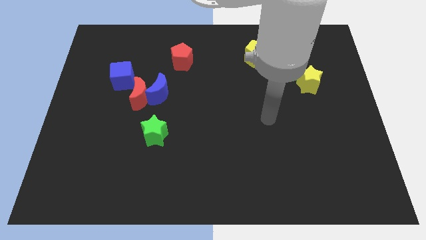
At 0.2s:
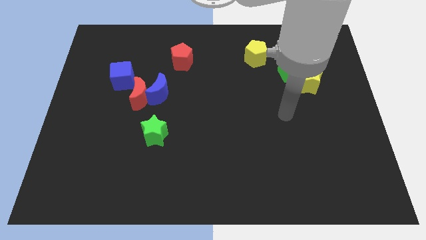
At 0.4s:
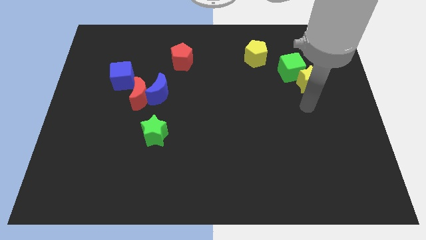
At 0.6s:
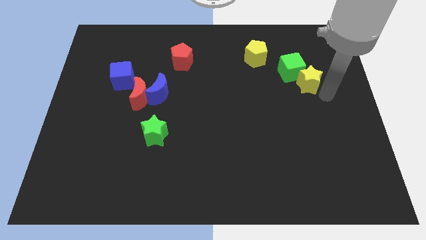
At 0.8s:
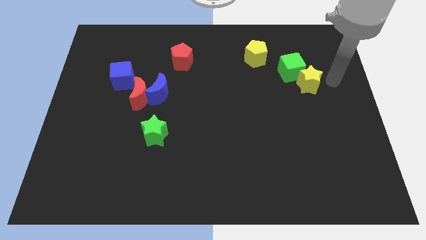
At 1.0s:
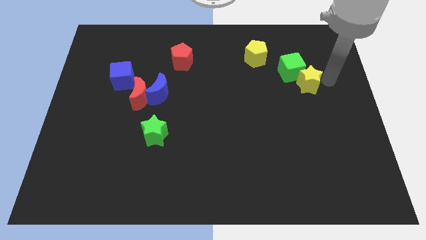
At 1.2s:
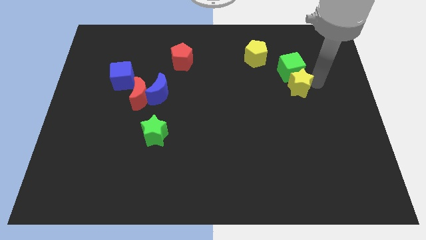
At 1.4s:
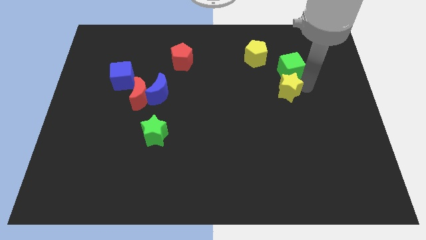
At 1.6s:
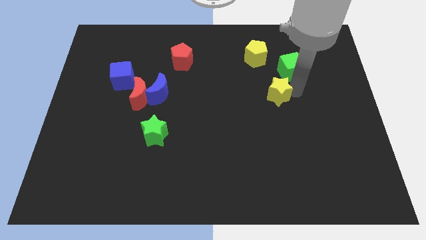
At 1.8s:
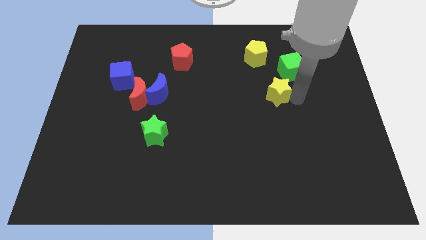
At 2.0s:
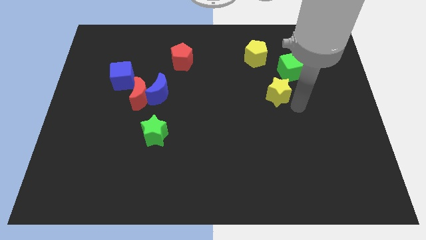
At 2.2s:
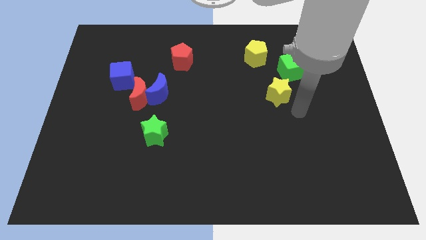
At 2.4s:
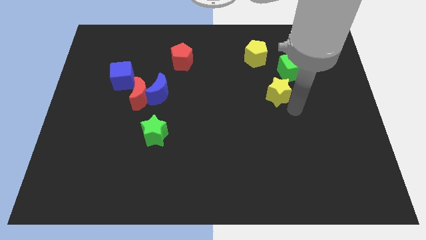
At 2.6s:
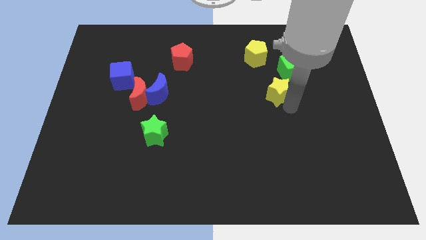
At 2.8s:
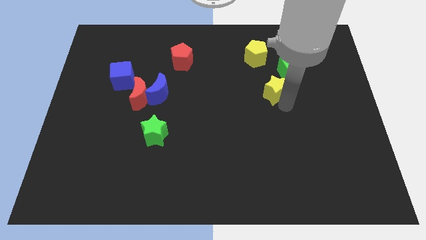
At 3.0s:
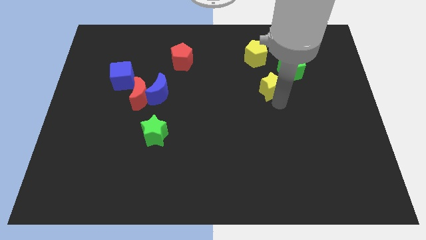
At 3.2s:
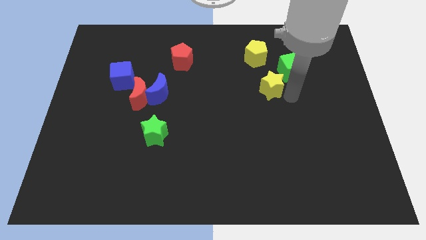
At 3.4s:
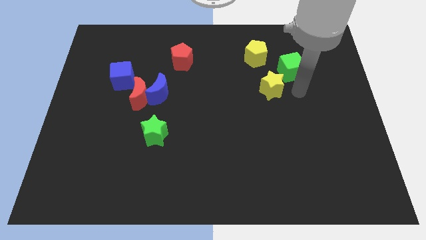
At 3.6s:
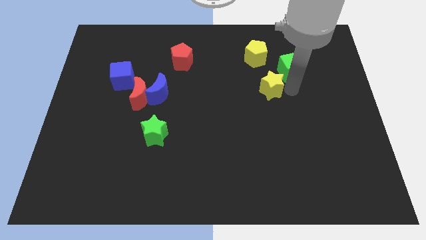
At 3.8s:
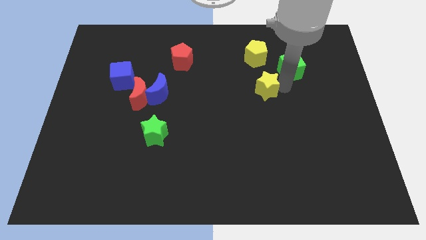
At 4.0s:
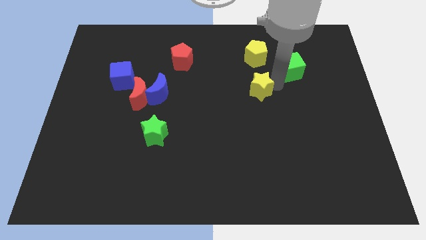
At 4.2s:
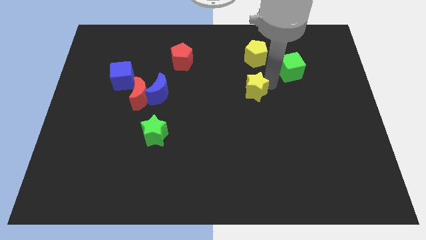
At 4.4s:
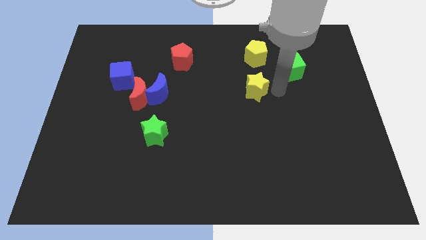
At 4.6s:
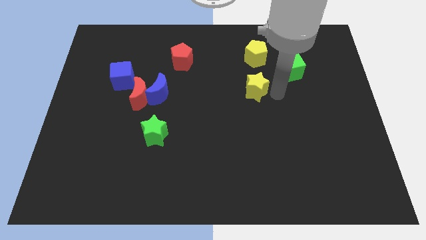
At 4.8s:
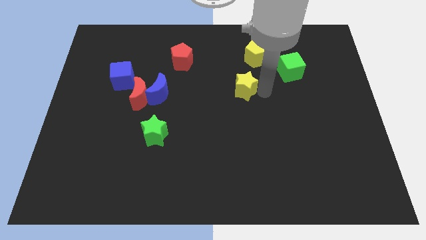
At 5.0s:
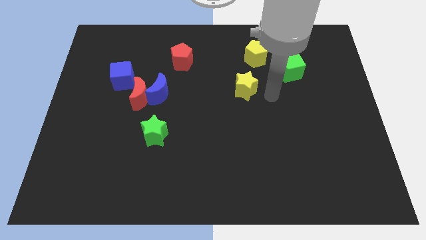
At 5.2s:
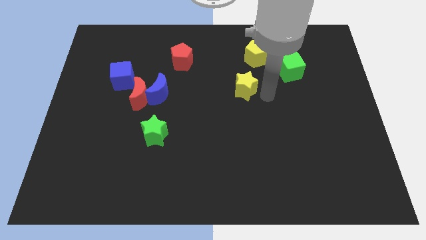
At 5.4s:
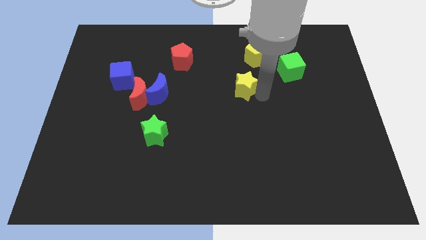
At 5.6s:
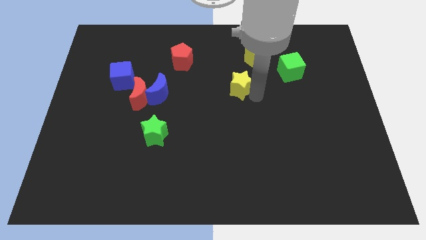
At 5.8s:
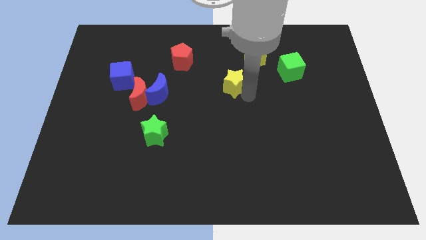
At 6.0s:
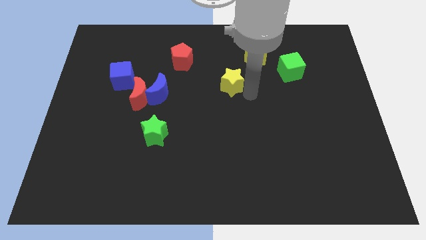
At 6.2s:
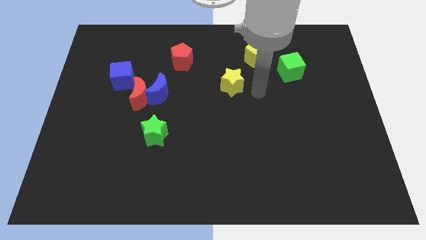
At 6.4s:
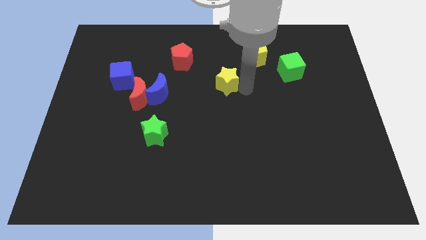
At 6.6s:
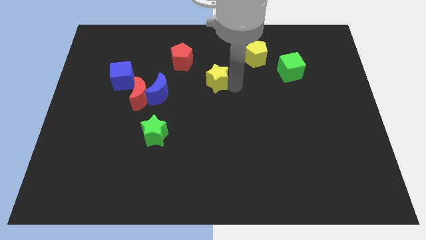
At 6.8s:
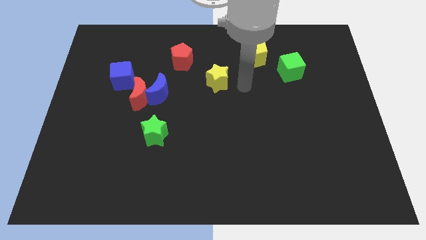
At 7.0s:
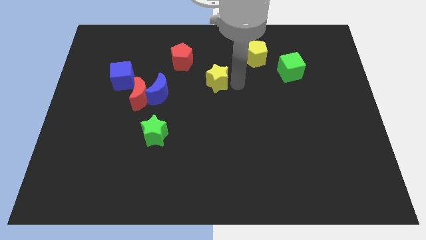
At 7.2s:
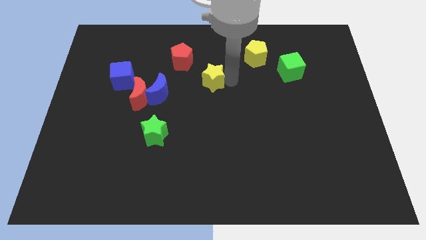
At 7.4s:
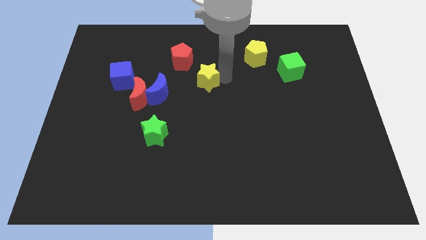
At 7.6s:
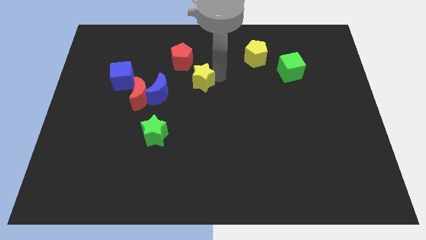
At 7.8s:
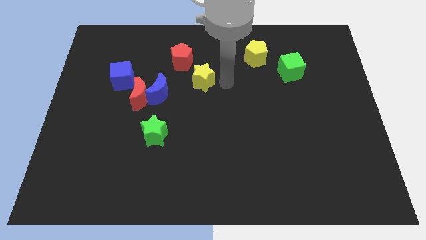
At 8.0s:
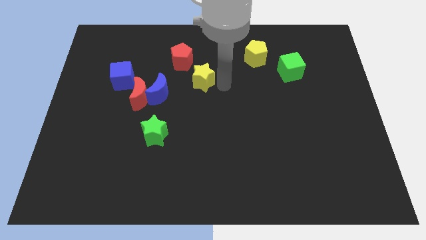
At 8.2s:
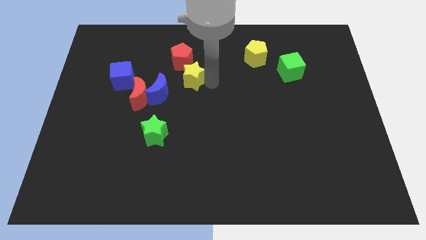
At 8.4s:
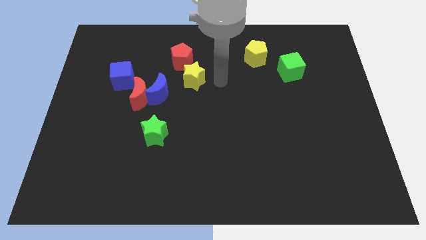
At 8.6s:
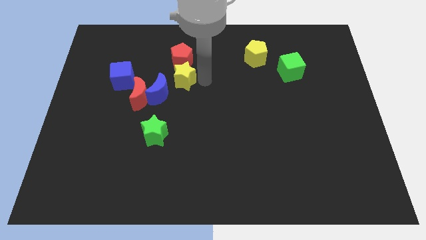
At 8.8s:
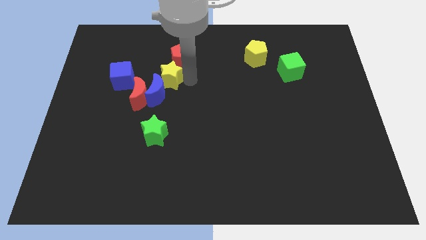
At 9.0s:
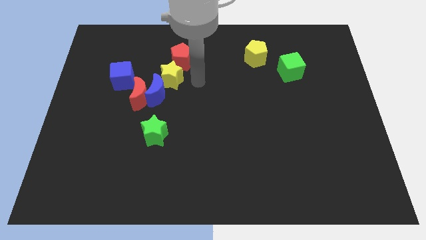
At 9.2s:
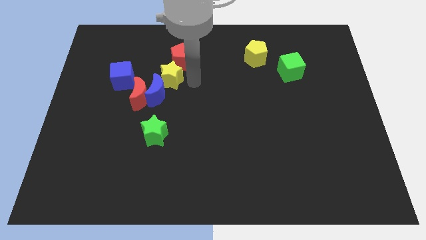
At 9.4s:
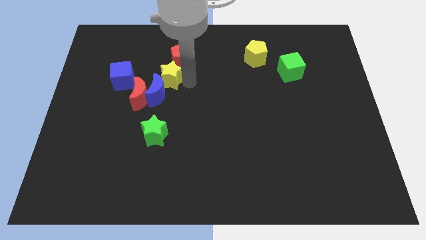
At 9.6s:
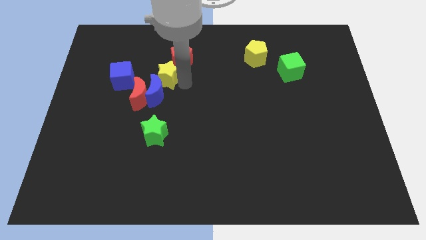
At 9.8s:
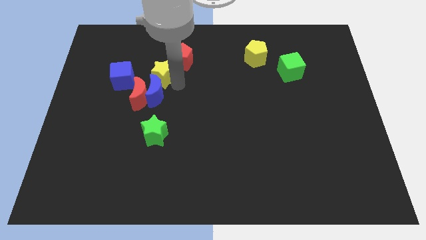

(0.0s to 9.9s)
put the yellow star diagonally up and to the left of the blue moon

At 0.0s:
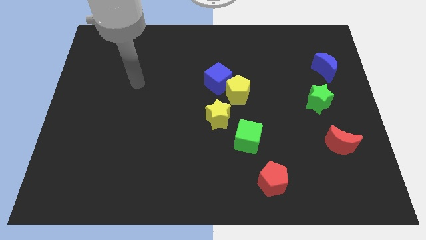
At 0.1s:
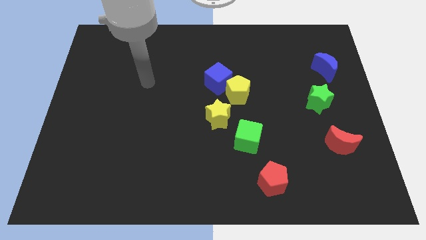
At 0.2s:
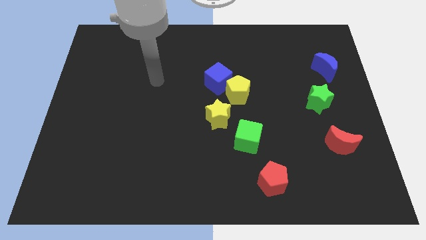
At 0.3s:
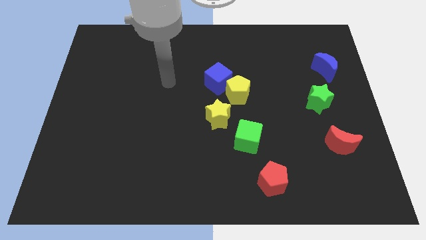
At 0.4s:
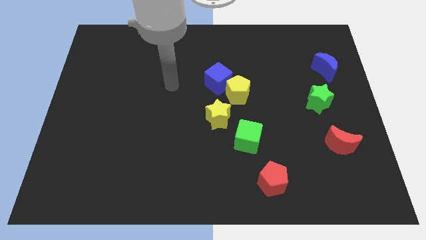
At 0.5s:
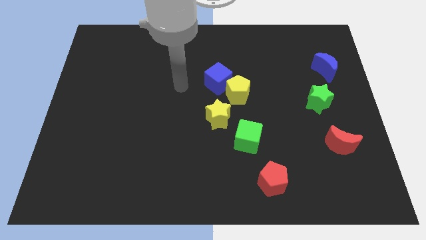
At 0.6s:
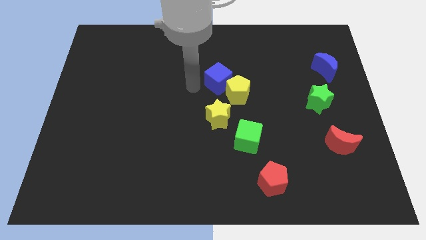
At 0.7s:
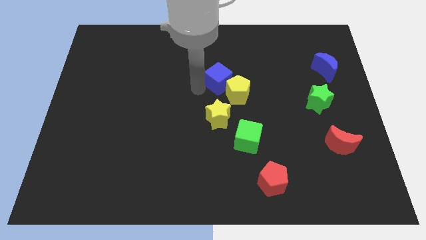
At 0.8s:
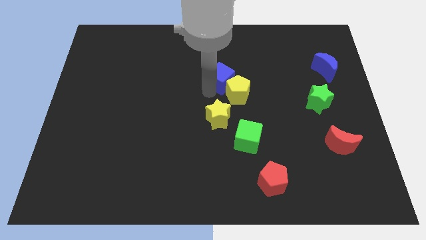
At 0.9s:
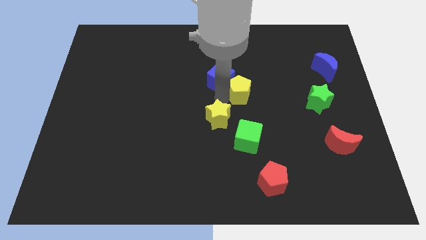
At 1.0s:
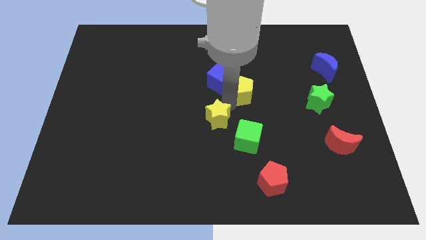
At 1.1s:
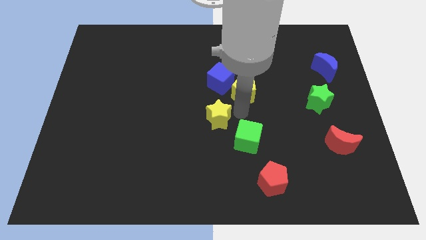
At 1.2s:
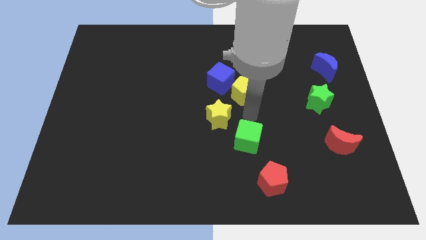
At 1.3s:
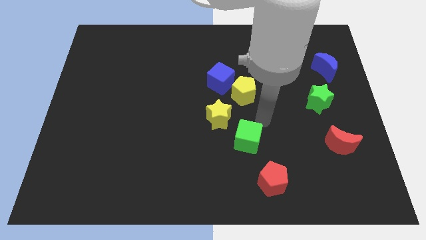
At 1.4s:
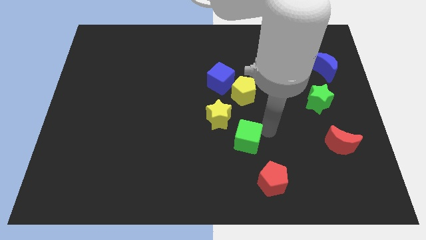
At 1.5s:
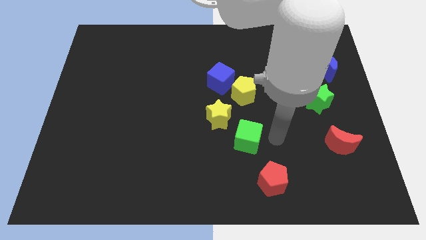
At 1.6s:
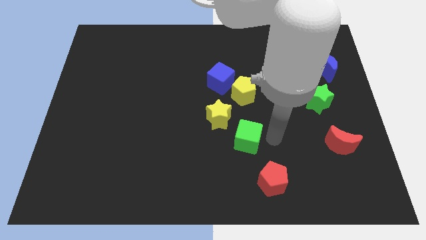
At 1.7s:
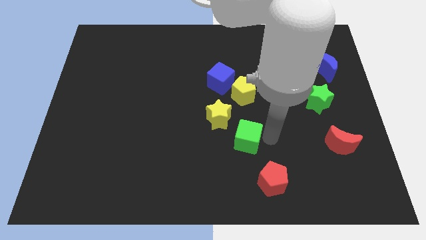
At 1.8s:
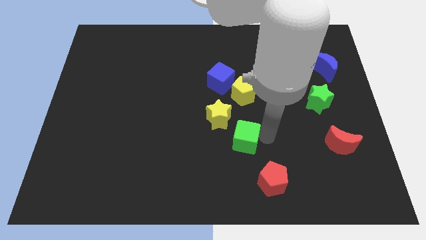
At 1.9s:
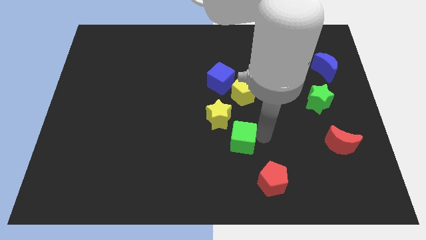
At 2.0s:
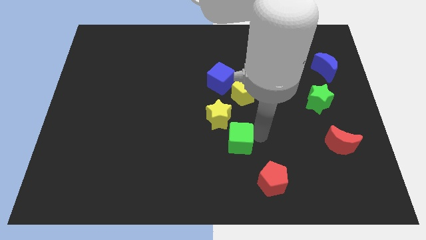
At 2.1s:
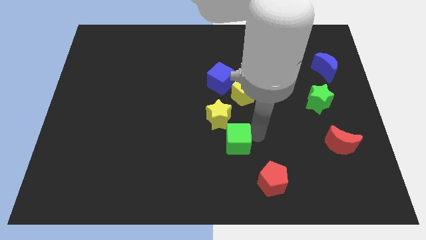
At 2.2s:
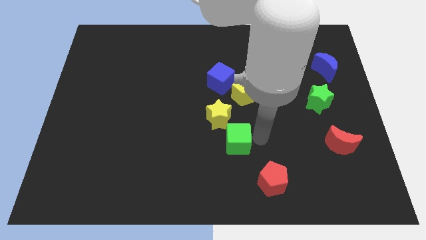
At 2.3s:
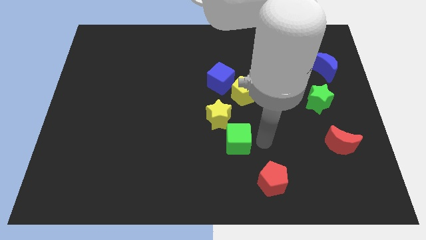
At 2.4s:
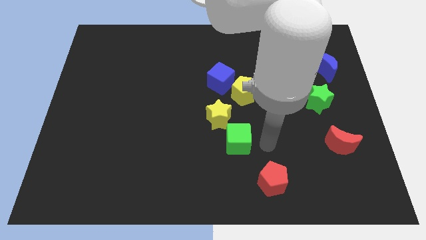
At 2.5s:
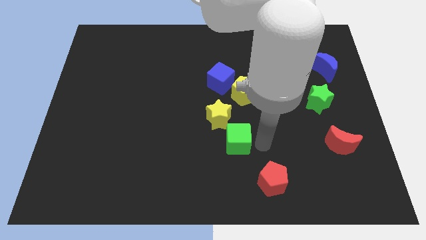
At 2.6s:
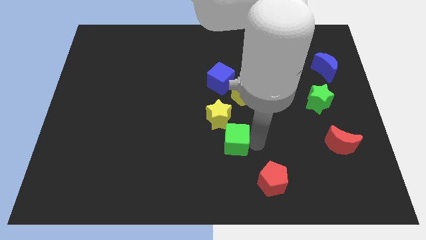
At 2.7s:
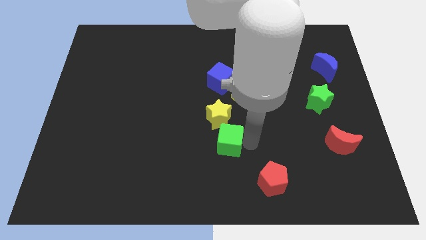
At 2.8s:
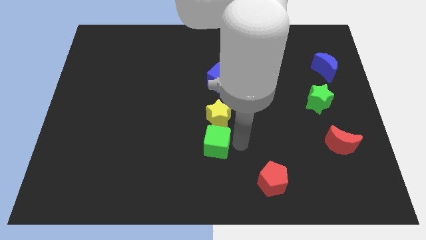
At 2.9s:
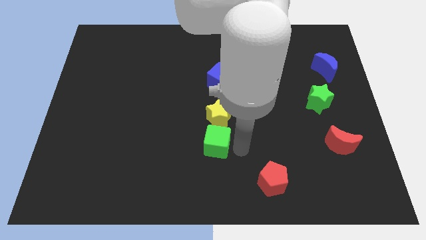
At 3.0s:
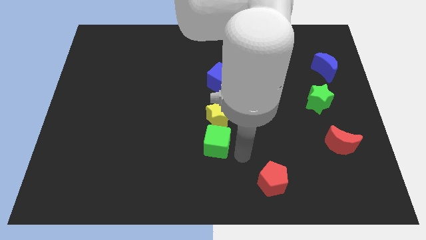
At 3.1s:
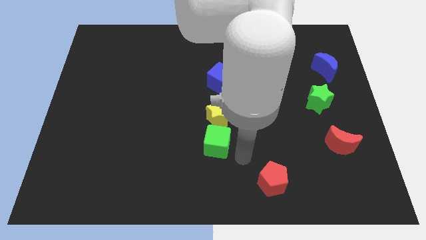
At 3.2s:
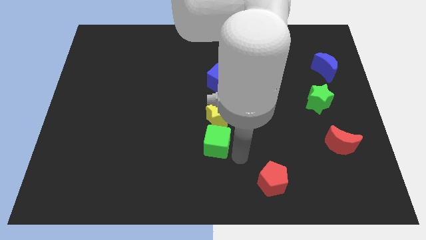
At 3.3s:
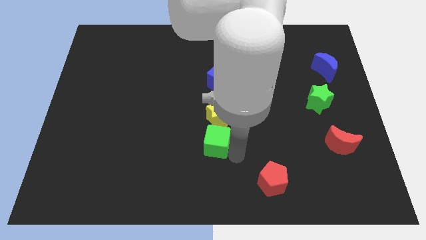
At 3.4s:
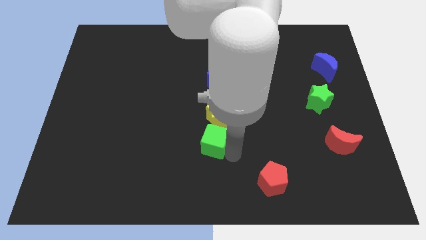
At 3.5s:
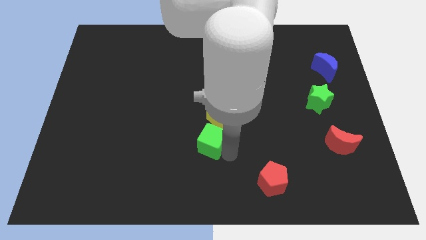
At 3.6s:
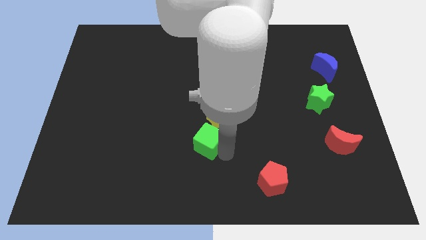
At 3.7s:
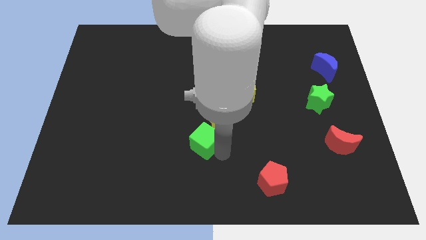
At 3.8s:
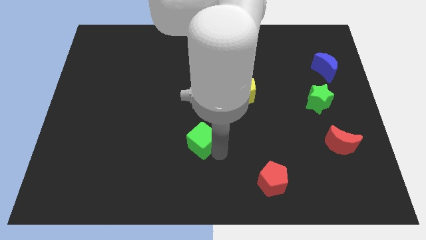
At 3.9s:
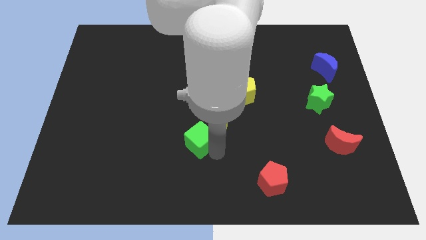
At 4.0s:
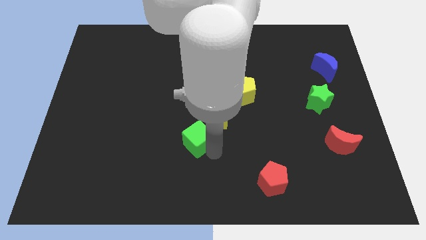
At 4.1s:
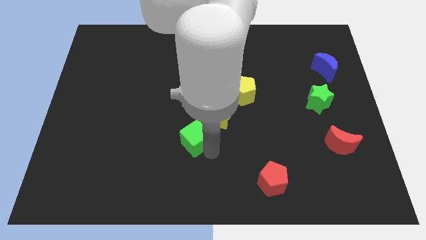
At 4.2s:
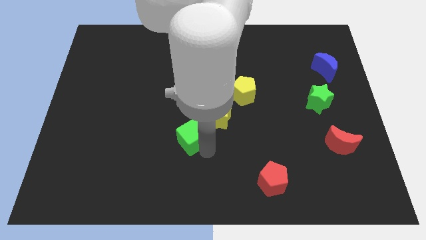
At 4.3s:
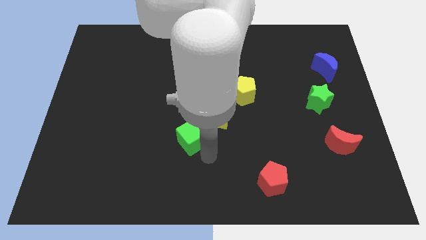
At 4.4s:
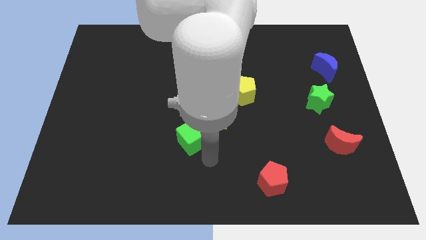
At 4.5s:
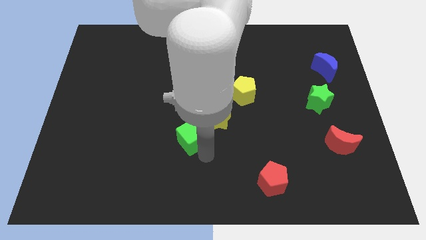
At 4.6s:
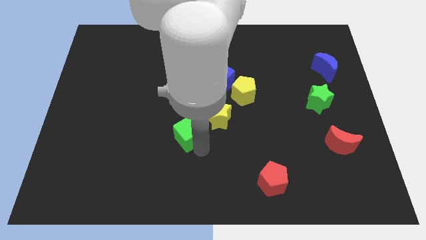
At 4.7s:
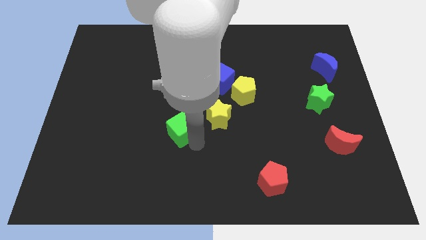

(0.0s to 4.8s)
put the green cube just left of the yellow star
